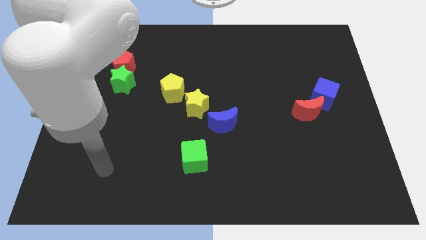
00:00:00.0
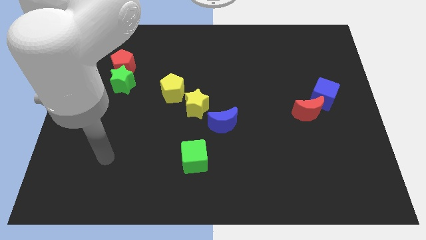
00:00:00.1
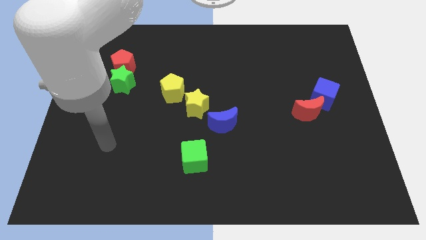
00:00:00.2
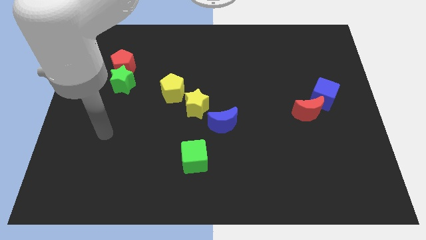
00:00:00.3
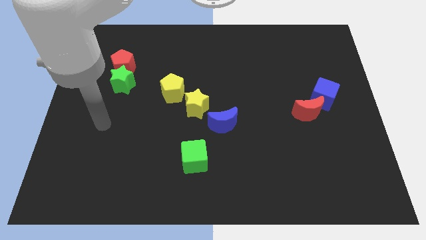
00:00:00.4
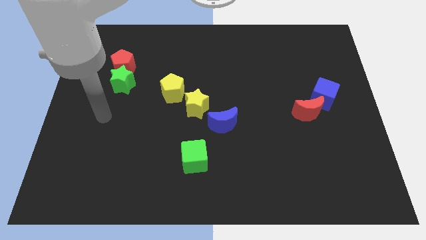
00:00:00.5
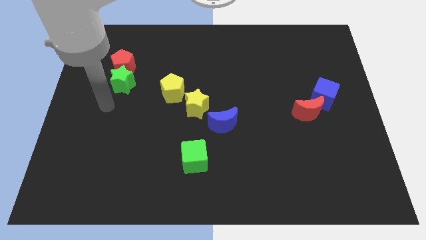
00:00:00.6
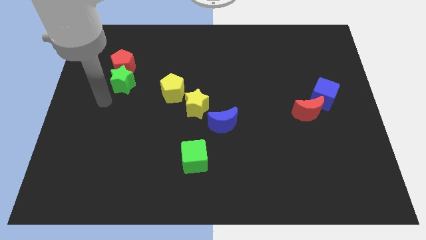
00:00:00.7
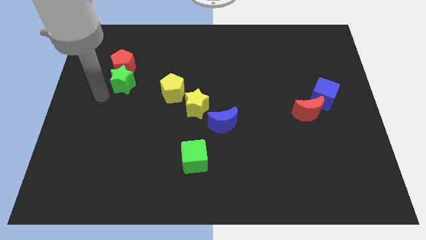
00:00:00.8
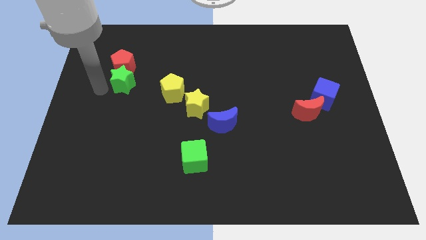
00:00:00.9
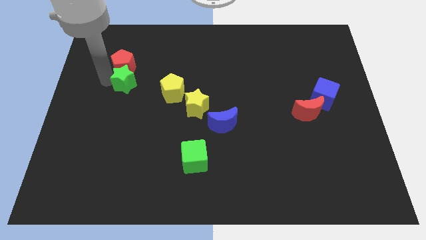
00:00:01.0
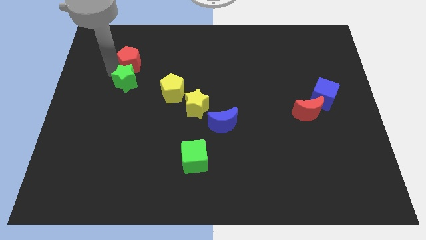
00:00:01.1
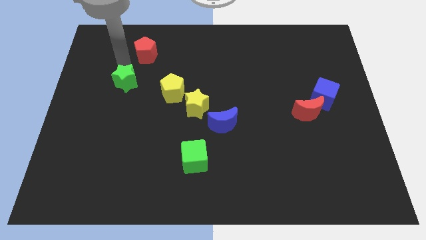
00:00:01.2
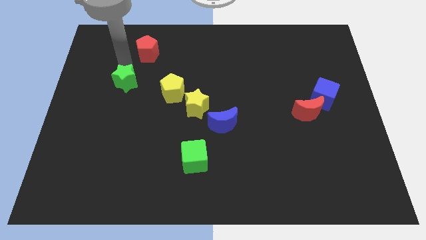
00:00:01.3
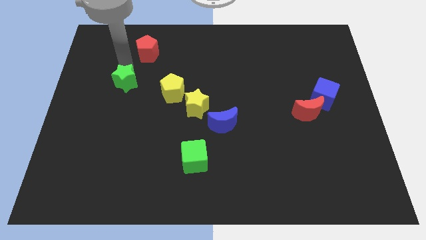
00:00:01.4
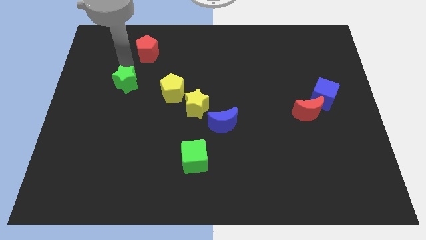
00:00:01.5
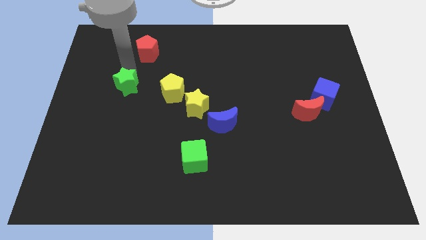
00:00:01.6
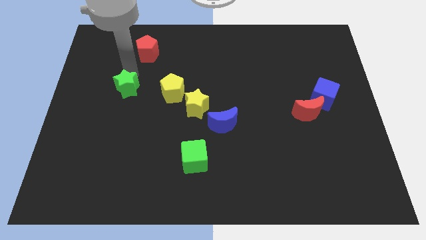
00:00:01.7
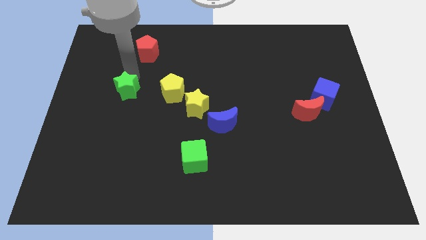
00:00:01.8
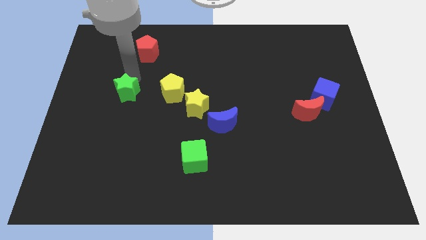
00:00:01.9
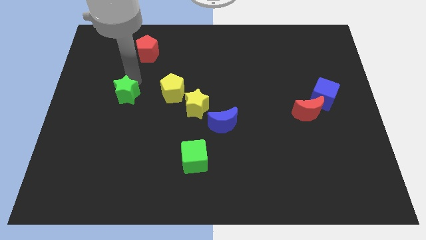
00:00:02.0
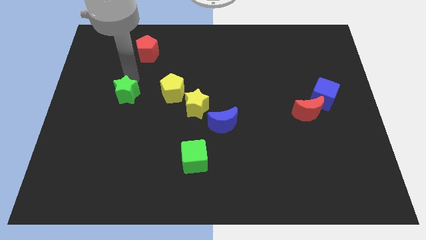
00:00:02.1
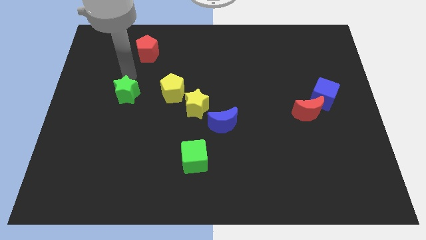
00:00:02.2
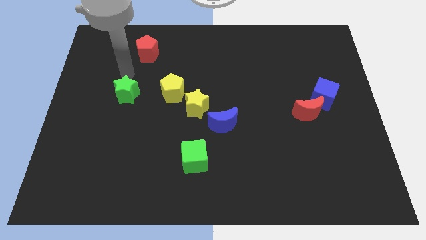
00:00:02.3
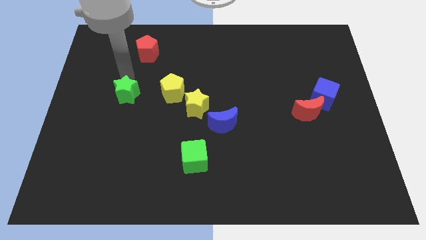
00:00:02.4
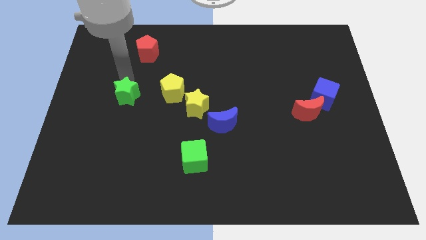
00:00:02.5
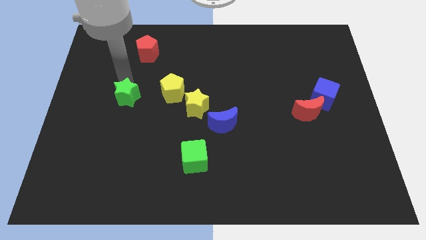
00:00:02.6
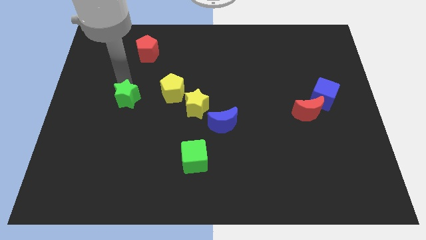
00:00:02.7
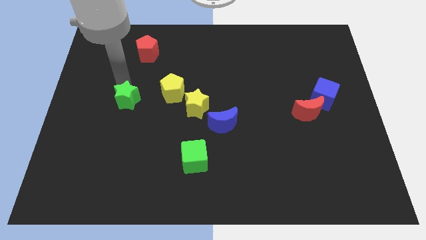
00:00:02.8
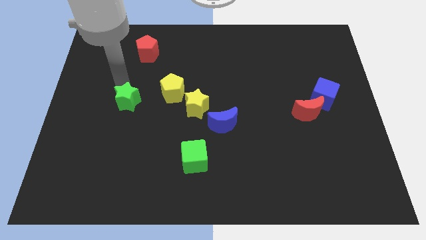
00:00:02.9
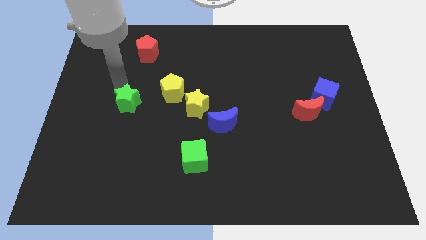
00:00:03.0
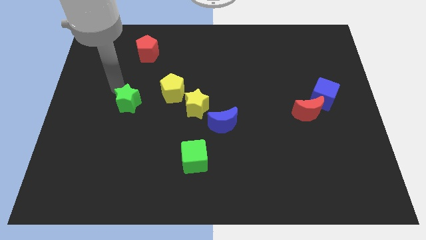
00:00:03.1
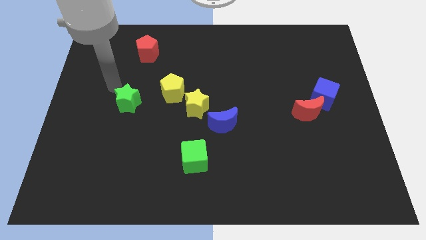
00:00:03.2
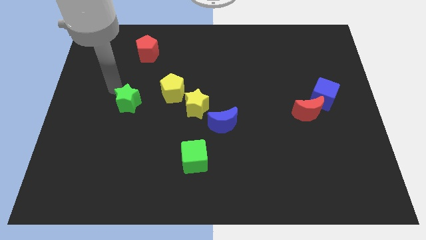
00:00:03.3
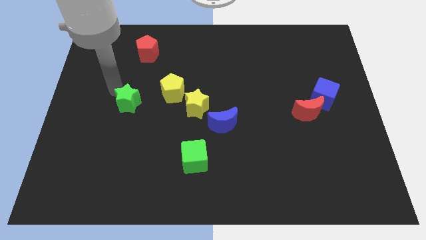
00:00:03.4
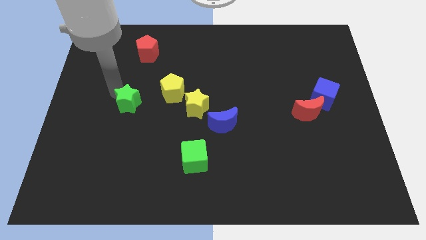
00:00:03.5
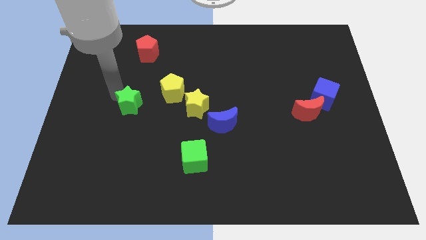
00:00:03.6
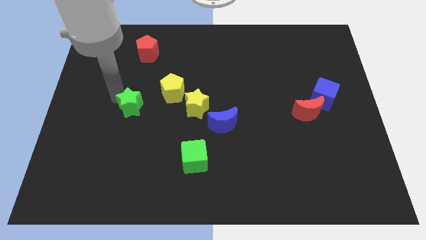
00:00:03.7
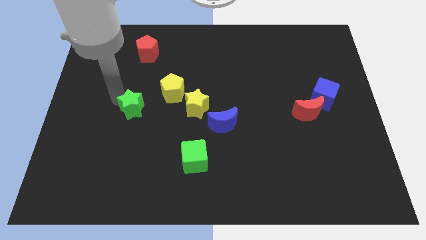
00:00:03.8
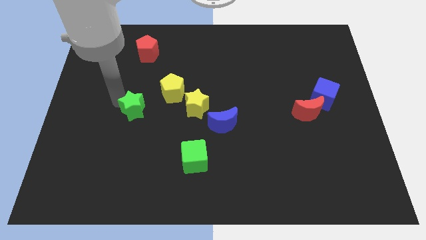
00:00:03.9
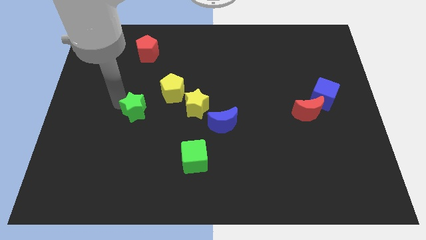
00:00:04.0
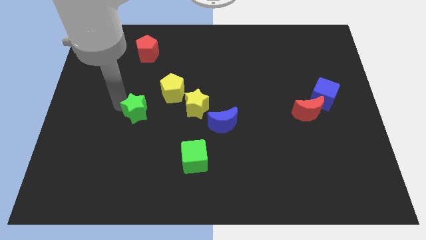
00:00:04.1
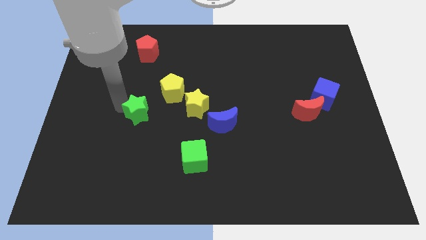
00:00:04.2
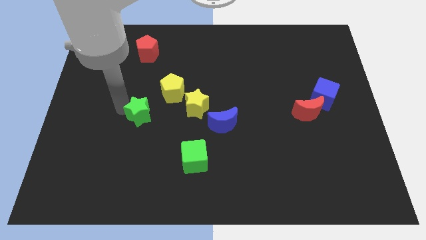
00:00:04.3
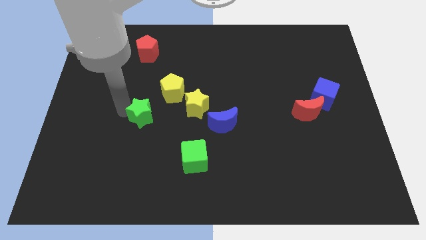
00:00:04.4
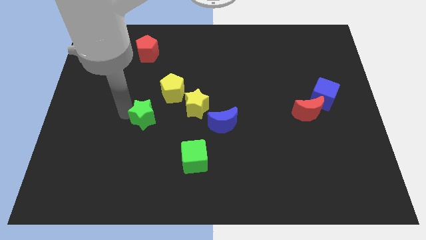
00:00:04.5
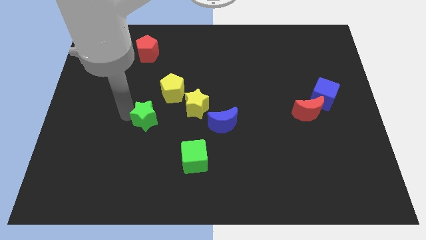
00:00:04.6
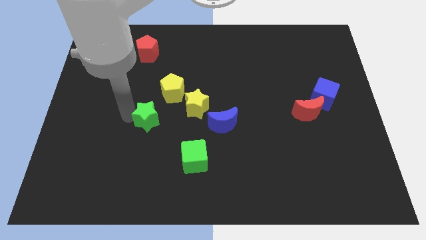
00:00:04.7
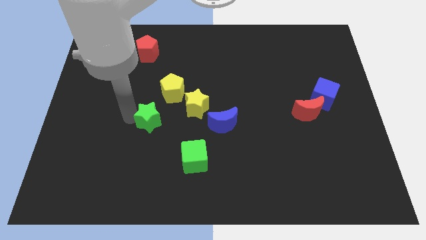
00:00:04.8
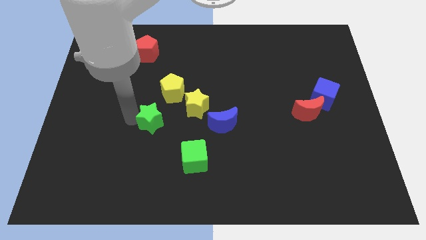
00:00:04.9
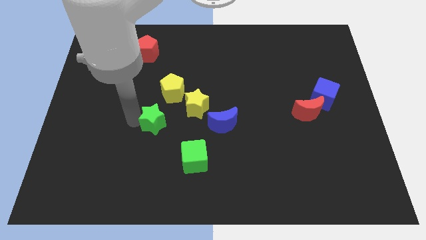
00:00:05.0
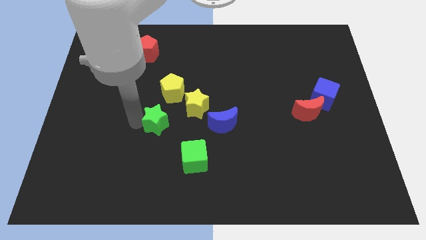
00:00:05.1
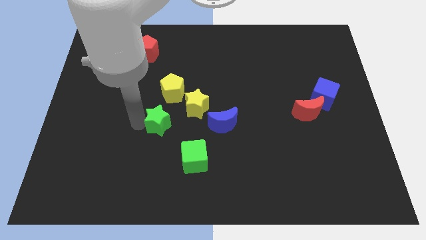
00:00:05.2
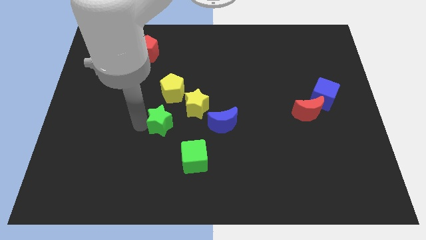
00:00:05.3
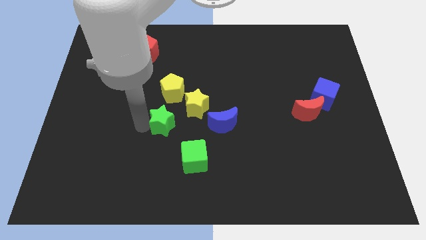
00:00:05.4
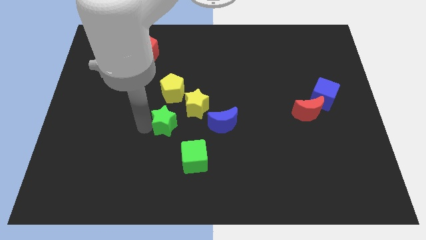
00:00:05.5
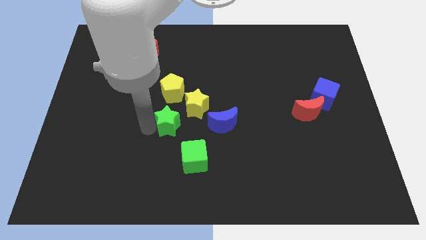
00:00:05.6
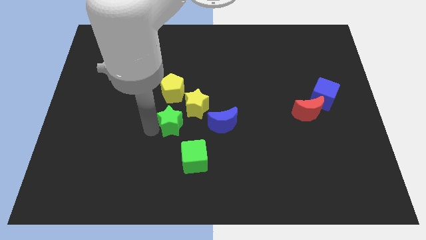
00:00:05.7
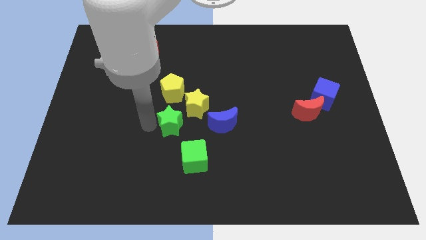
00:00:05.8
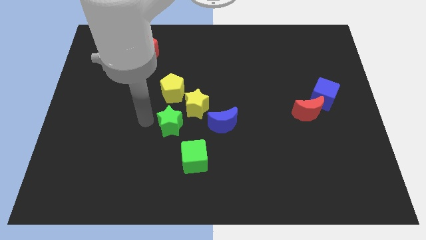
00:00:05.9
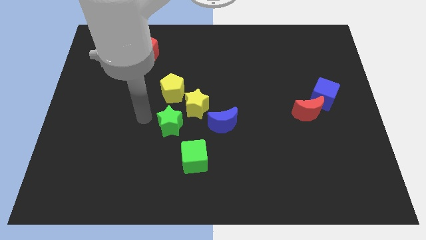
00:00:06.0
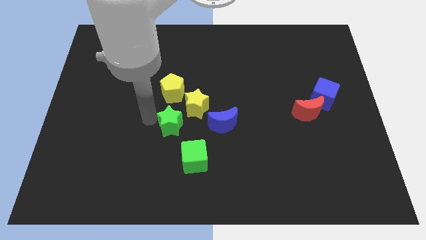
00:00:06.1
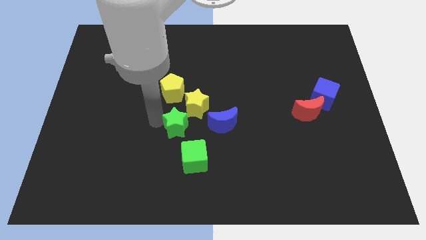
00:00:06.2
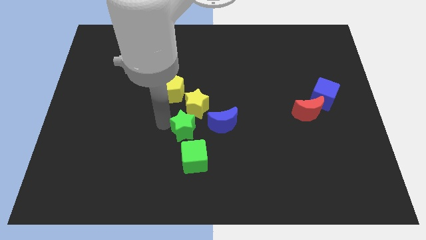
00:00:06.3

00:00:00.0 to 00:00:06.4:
push the green star downwards and right

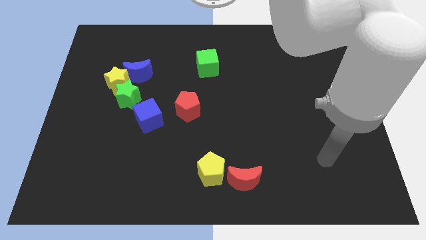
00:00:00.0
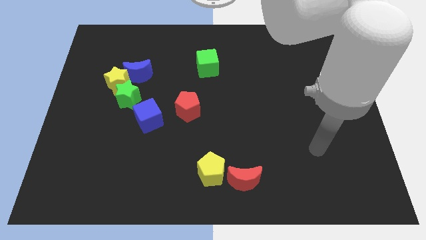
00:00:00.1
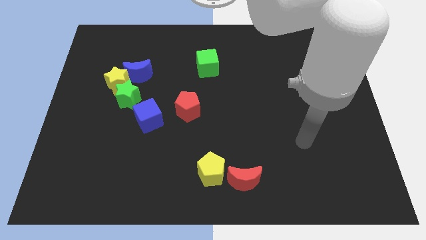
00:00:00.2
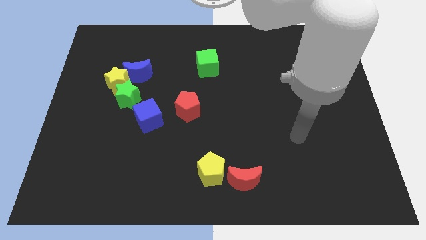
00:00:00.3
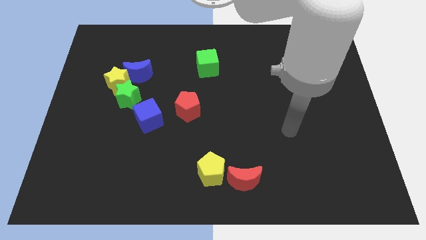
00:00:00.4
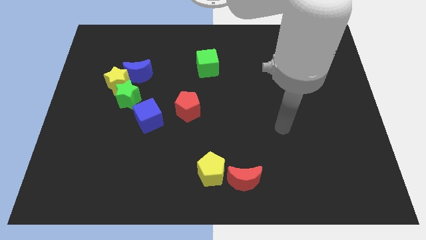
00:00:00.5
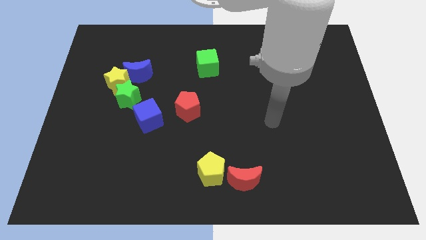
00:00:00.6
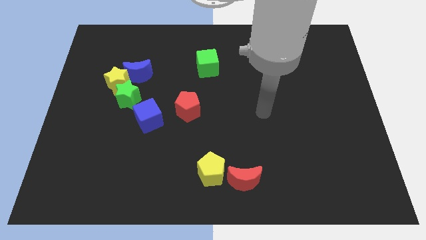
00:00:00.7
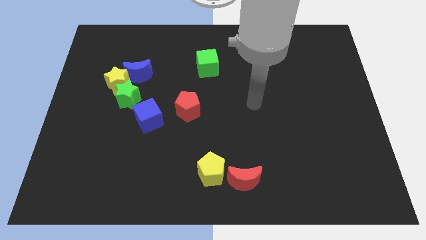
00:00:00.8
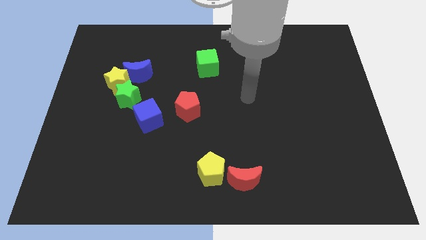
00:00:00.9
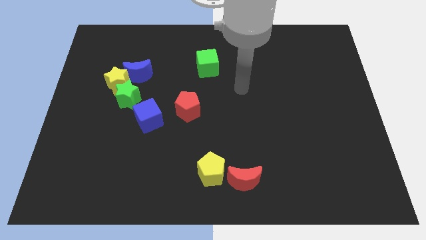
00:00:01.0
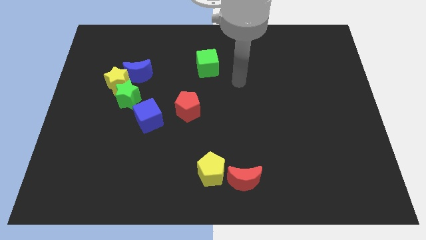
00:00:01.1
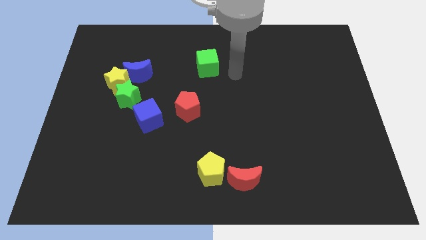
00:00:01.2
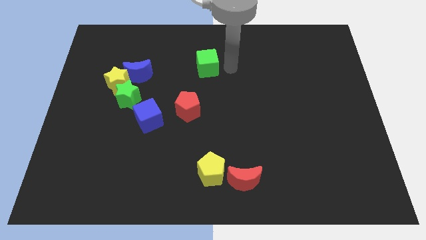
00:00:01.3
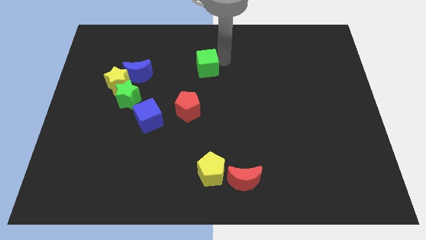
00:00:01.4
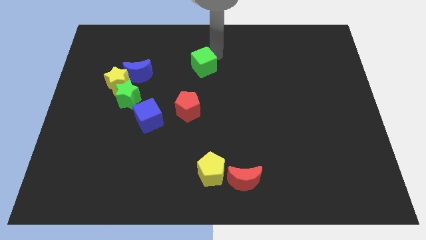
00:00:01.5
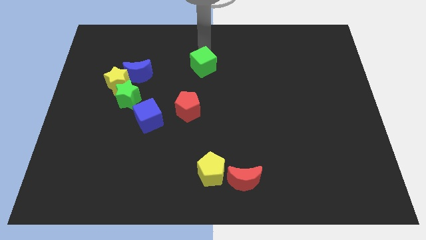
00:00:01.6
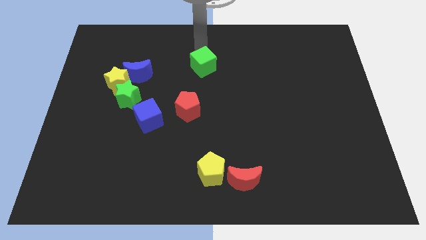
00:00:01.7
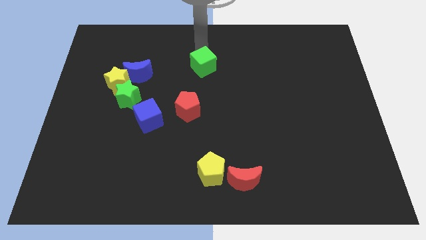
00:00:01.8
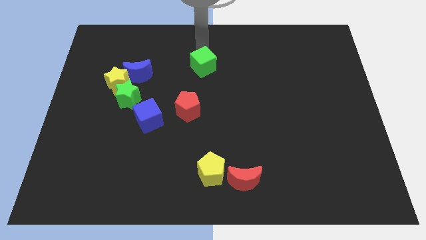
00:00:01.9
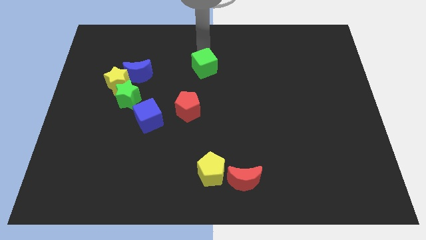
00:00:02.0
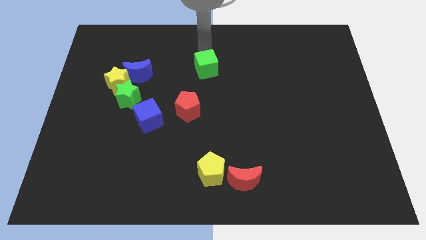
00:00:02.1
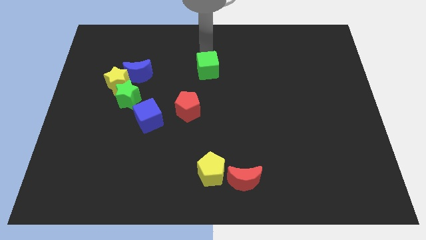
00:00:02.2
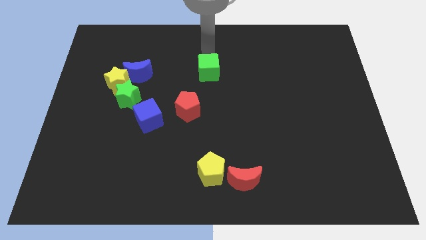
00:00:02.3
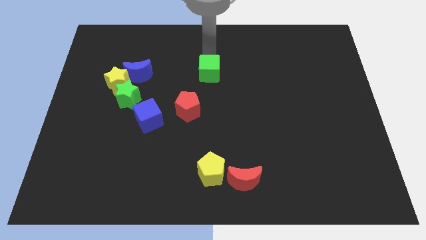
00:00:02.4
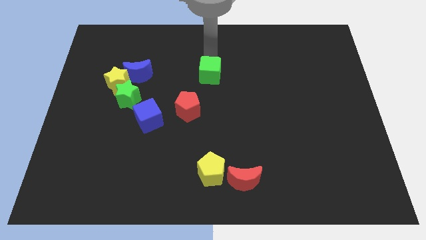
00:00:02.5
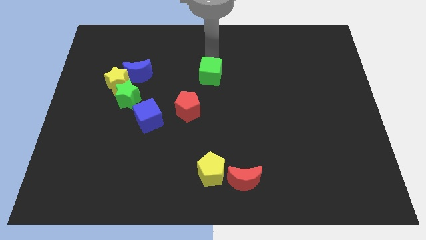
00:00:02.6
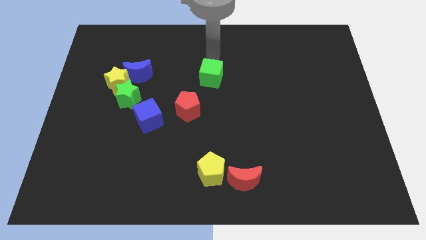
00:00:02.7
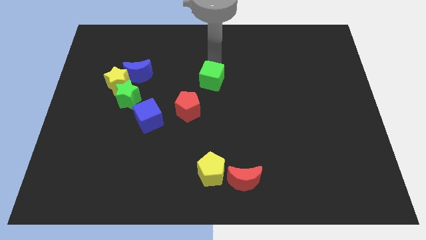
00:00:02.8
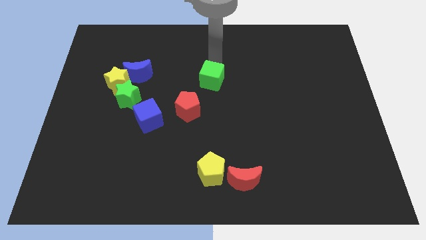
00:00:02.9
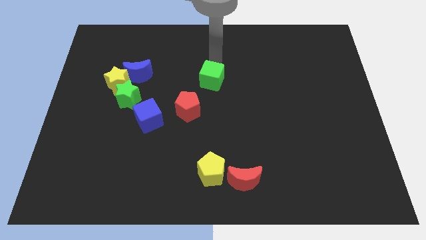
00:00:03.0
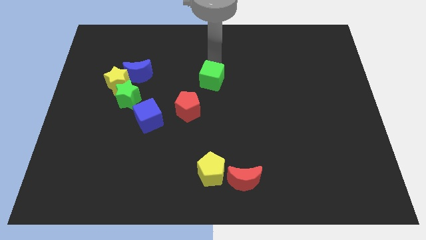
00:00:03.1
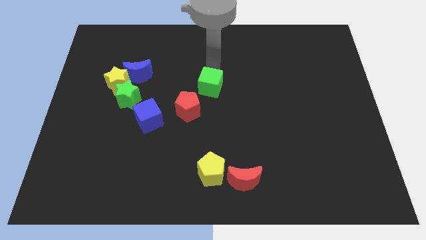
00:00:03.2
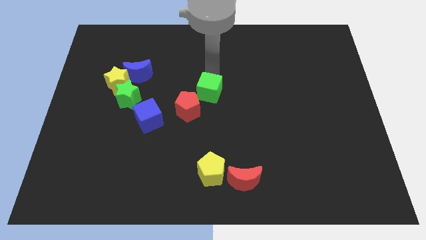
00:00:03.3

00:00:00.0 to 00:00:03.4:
move the green cube a little bit down
